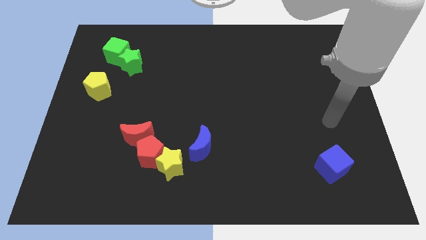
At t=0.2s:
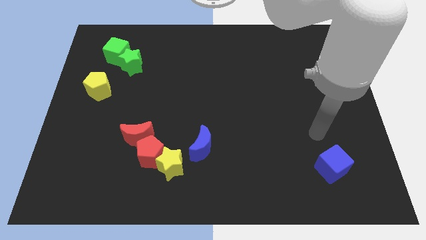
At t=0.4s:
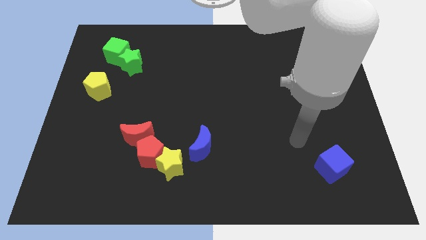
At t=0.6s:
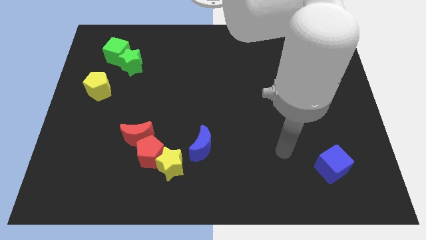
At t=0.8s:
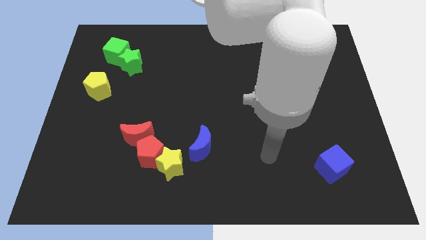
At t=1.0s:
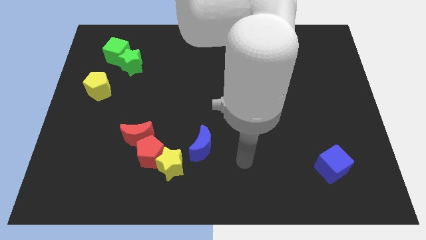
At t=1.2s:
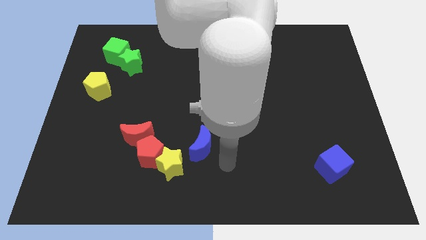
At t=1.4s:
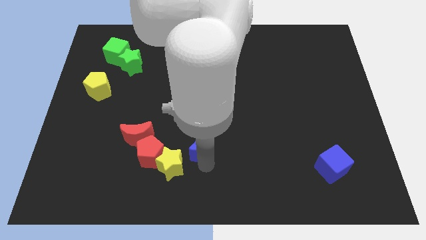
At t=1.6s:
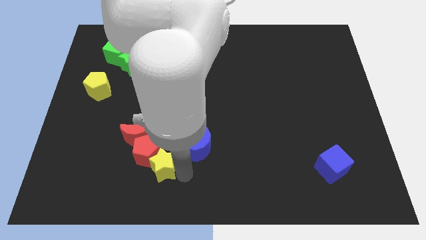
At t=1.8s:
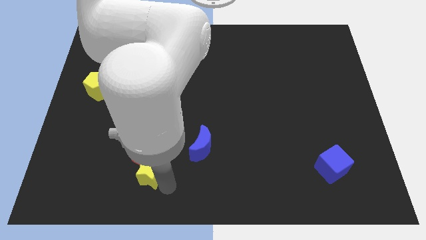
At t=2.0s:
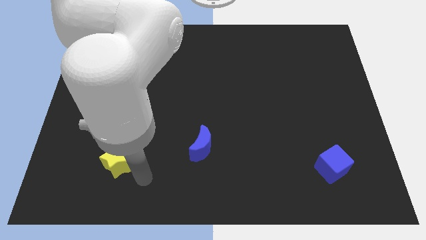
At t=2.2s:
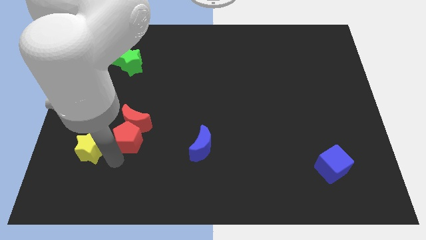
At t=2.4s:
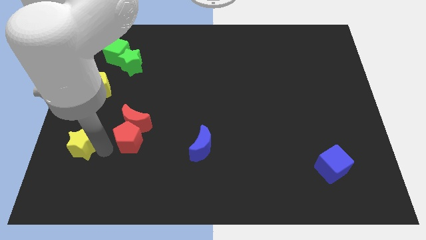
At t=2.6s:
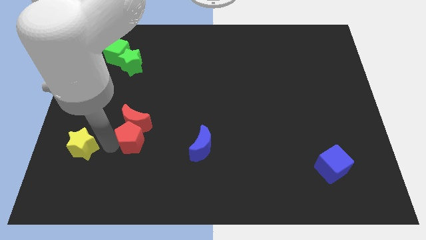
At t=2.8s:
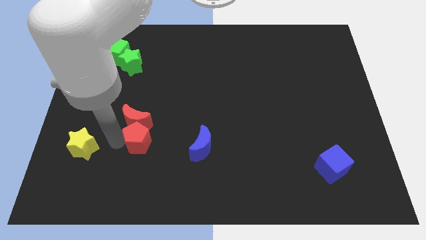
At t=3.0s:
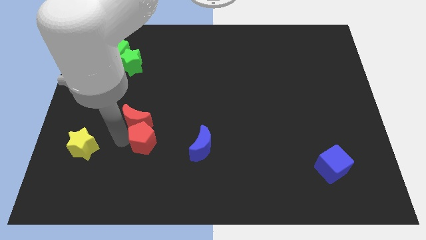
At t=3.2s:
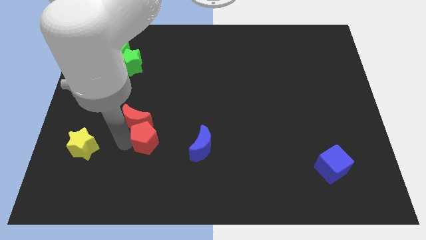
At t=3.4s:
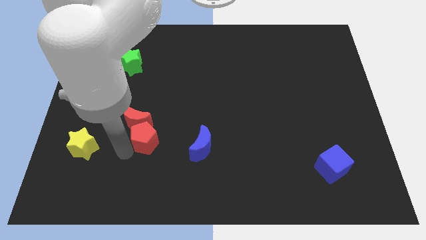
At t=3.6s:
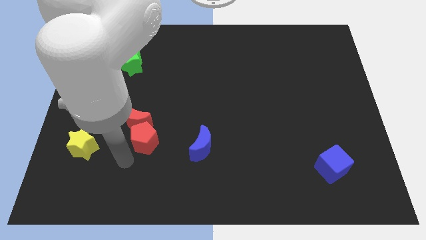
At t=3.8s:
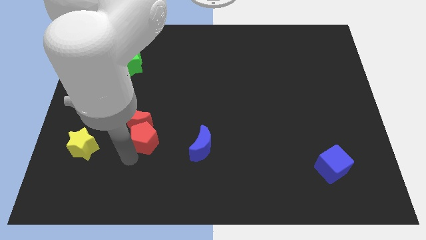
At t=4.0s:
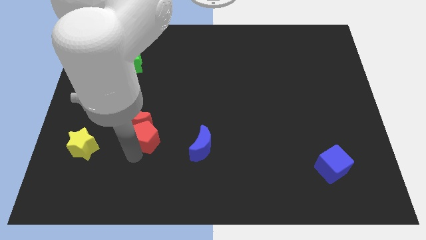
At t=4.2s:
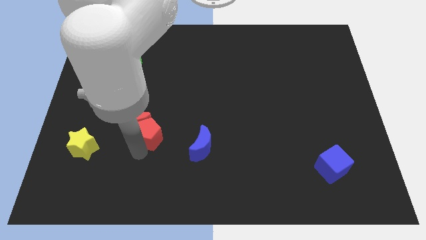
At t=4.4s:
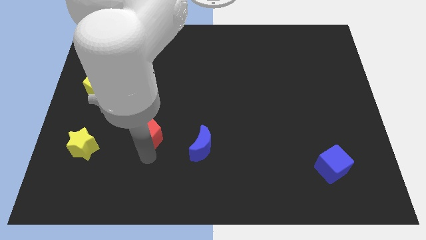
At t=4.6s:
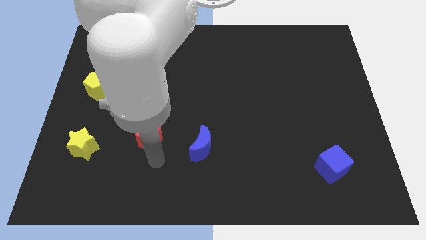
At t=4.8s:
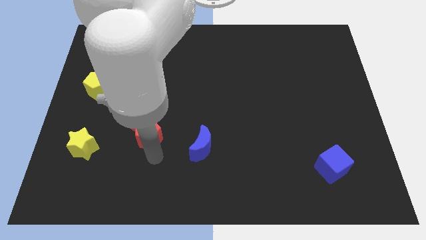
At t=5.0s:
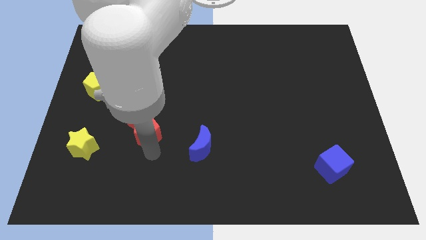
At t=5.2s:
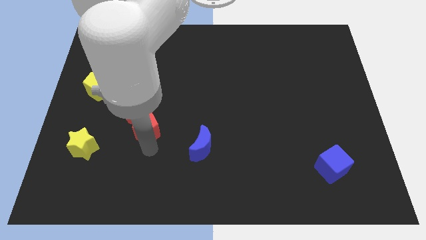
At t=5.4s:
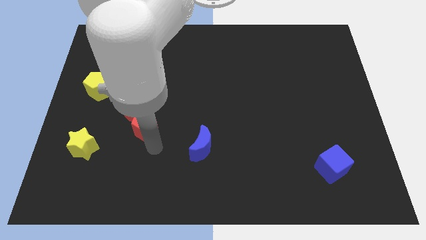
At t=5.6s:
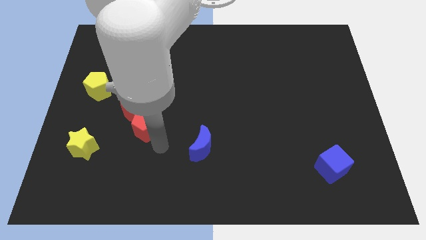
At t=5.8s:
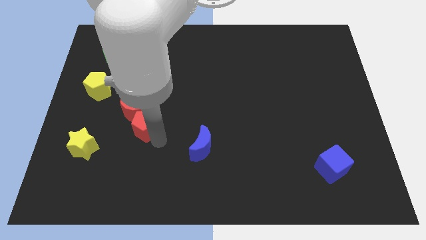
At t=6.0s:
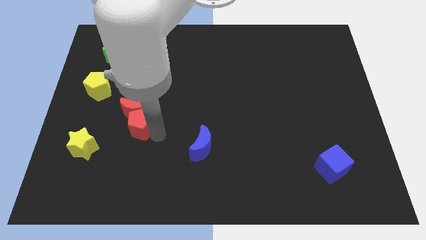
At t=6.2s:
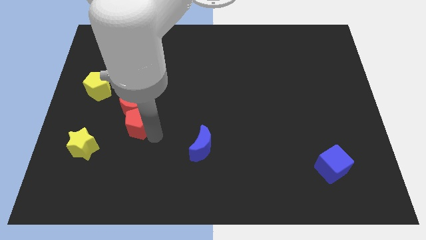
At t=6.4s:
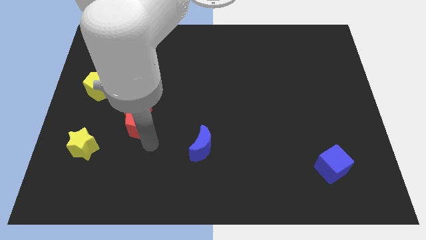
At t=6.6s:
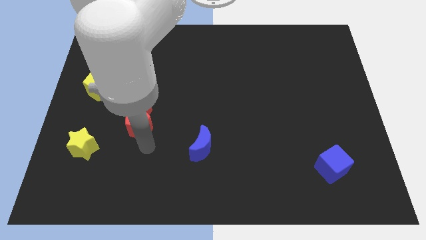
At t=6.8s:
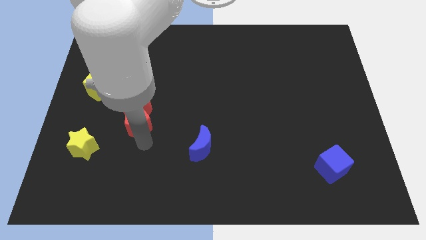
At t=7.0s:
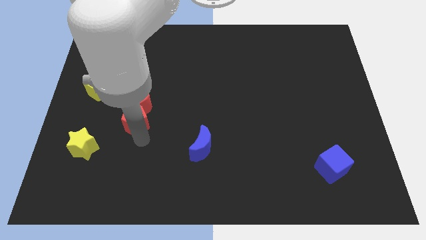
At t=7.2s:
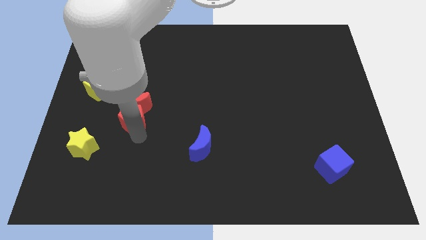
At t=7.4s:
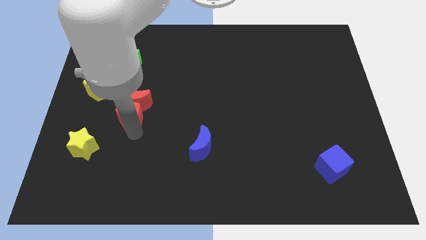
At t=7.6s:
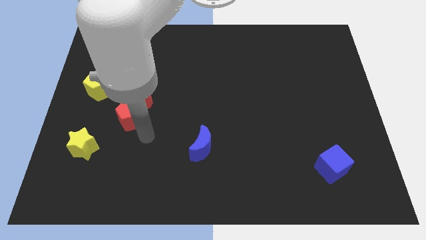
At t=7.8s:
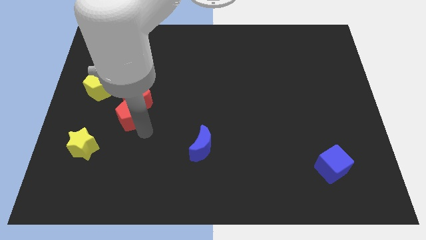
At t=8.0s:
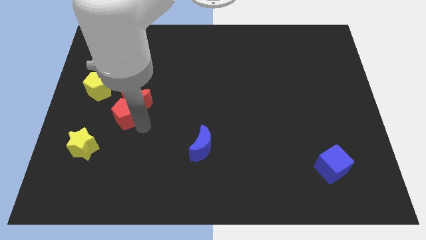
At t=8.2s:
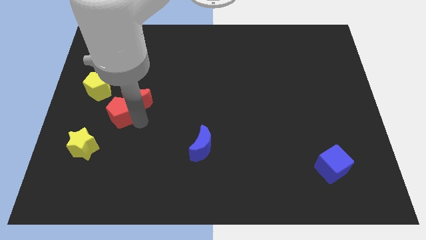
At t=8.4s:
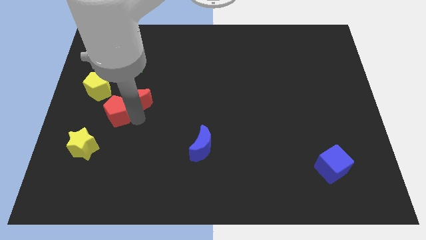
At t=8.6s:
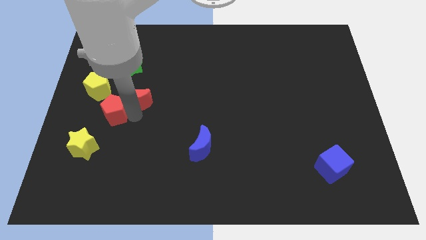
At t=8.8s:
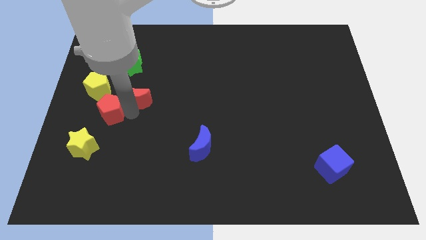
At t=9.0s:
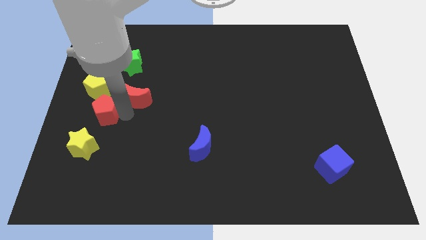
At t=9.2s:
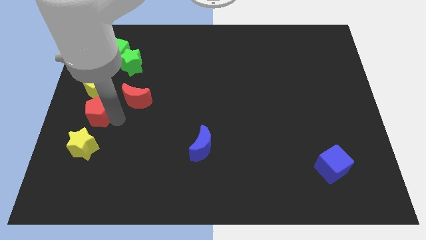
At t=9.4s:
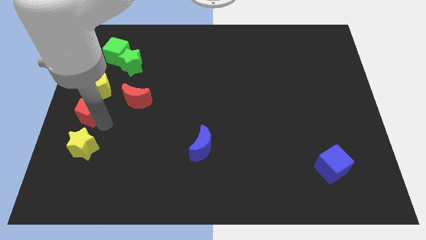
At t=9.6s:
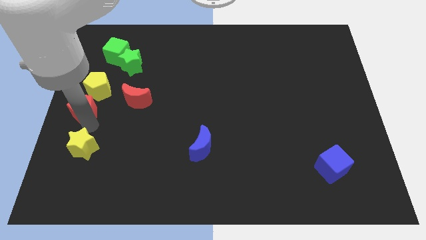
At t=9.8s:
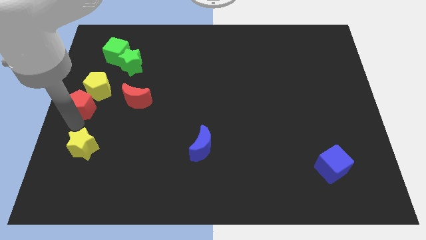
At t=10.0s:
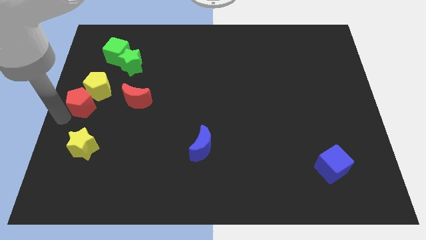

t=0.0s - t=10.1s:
slide the red pentagon to the yellow pentagon

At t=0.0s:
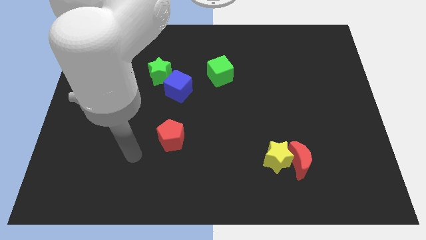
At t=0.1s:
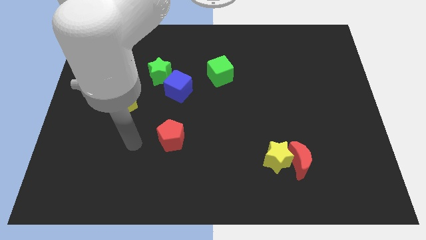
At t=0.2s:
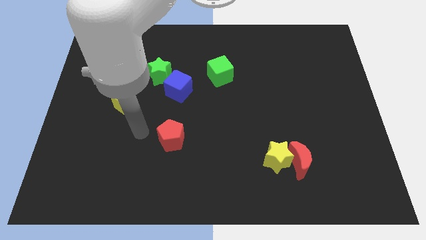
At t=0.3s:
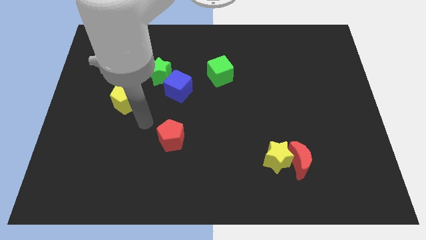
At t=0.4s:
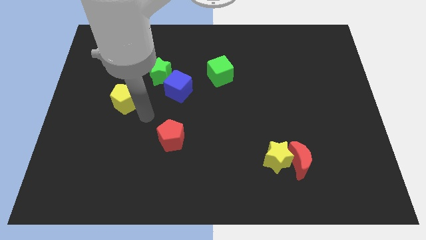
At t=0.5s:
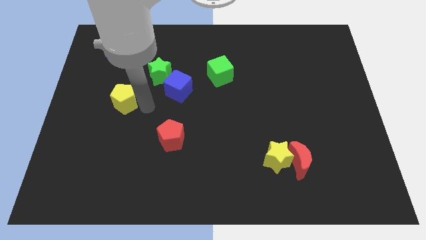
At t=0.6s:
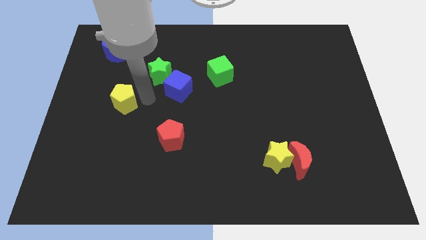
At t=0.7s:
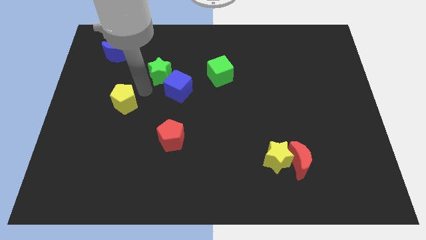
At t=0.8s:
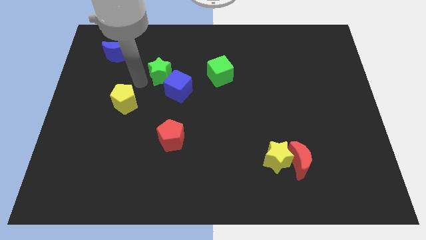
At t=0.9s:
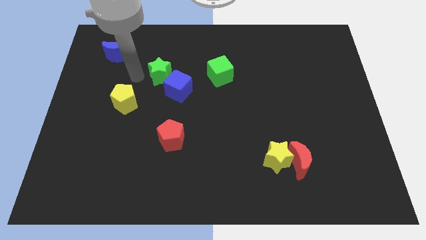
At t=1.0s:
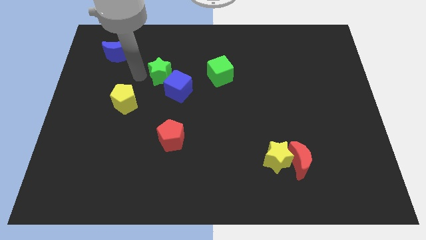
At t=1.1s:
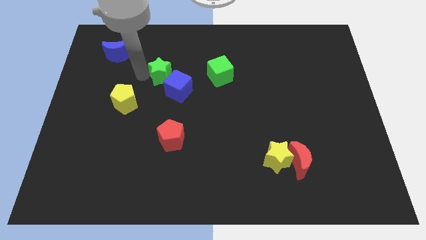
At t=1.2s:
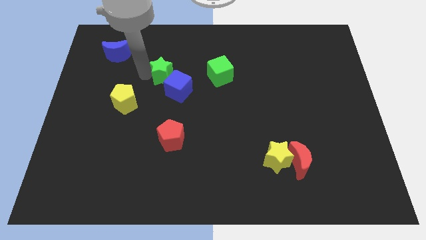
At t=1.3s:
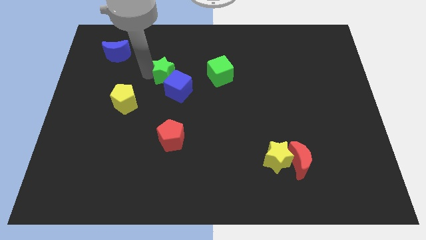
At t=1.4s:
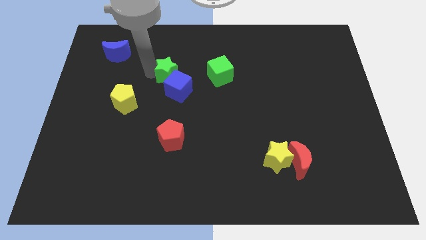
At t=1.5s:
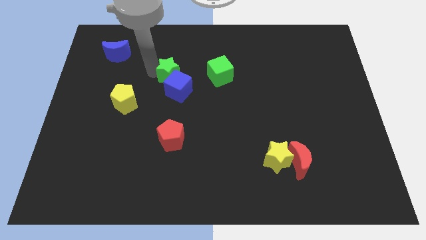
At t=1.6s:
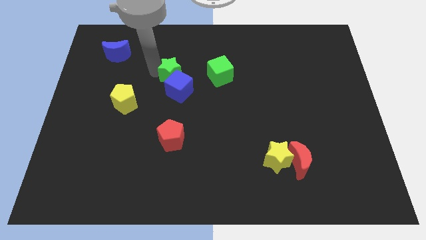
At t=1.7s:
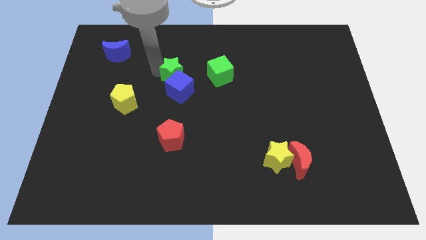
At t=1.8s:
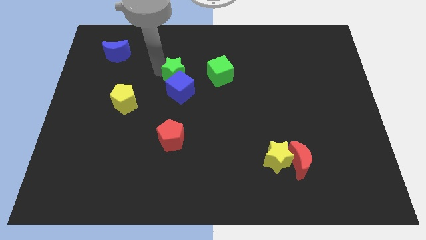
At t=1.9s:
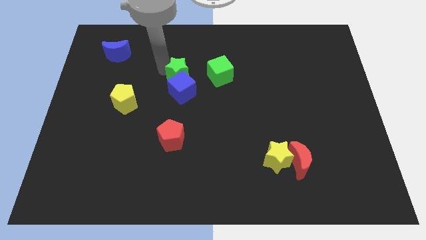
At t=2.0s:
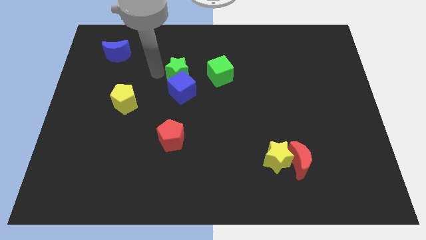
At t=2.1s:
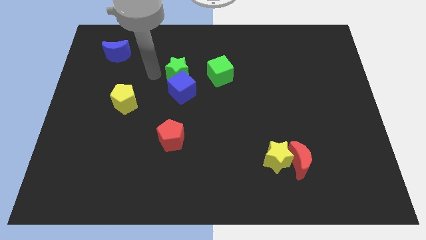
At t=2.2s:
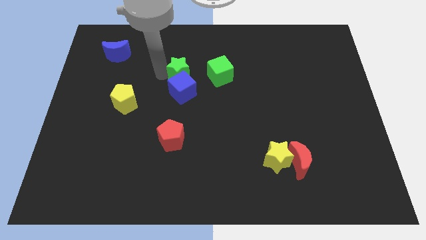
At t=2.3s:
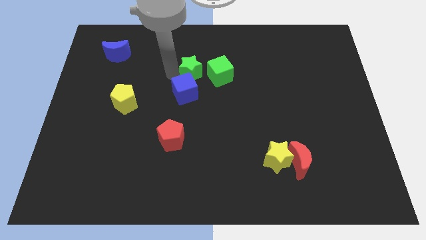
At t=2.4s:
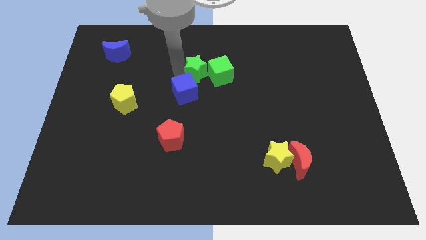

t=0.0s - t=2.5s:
move the green star next to the green cube
